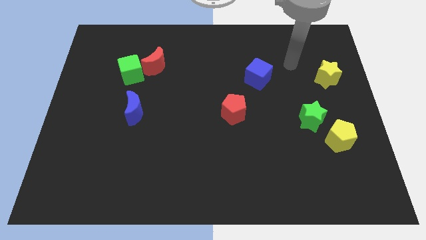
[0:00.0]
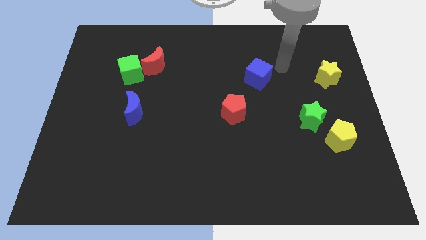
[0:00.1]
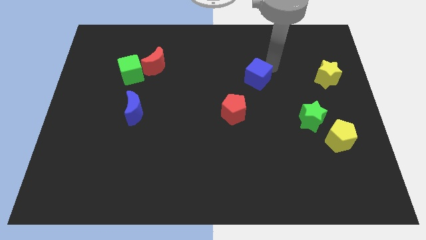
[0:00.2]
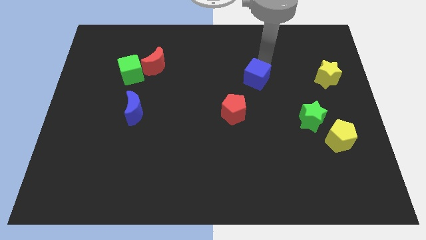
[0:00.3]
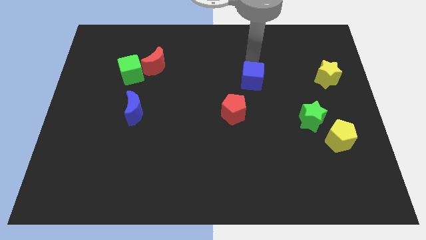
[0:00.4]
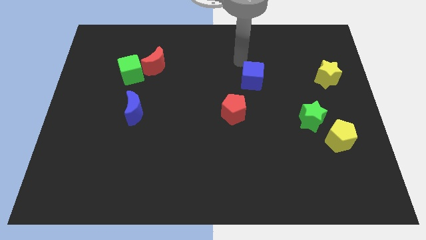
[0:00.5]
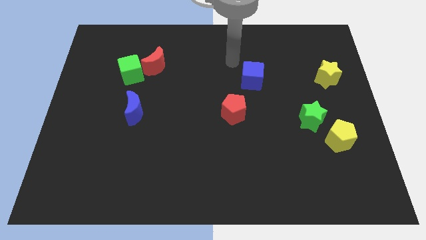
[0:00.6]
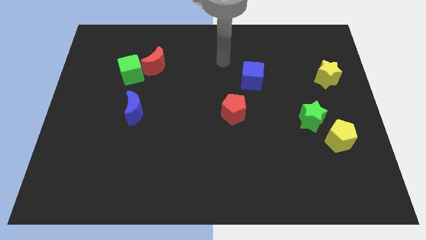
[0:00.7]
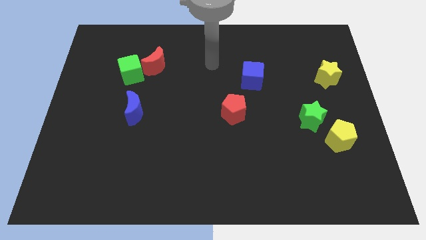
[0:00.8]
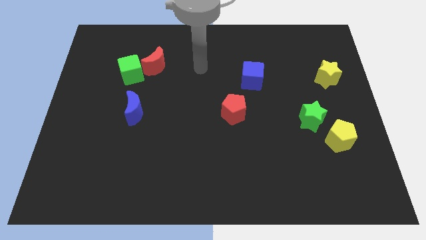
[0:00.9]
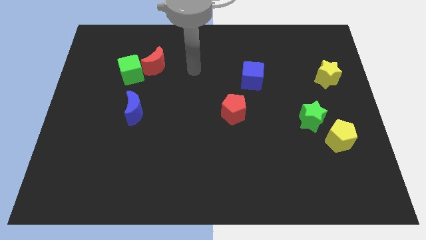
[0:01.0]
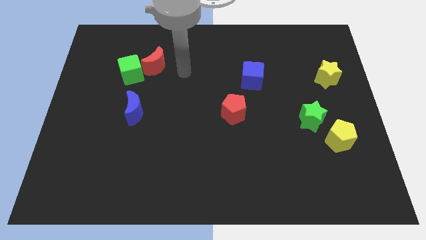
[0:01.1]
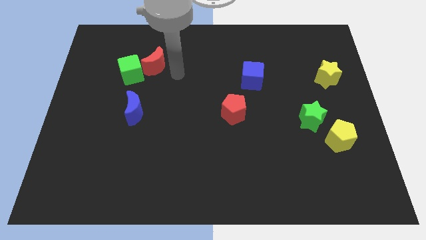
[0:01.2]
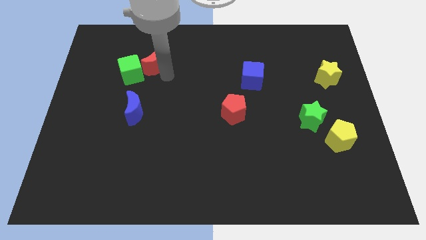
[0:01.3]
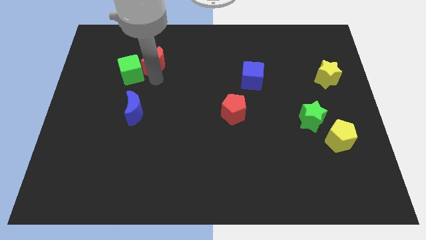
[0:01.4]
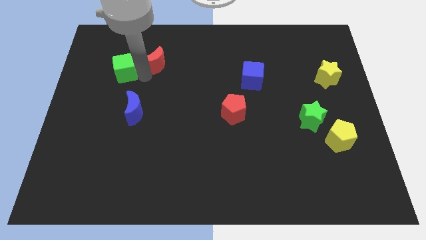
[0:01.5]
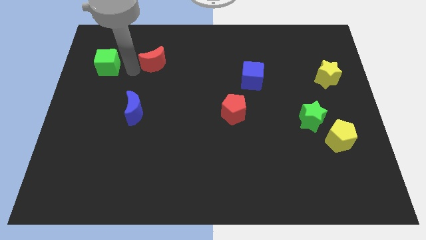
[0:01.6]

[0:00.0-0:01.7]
move the red moon away from the green cube

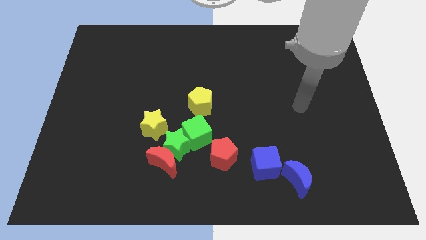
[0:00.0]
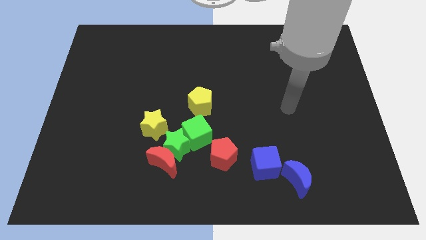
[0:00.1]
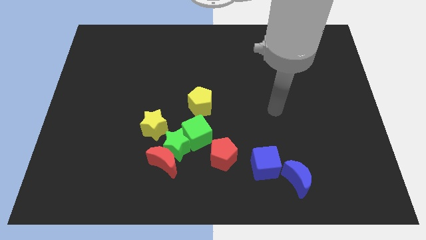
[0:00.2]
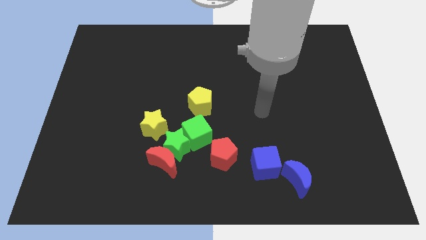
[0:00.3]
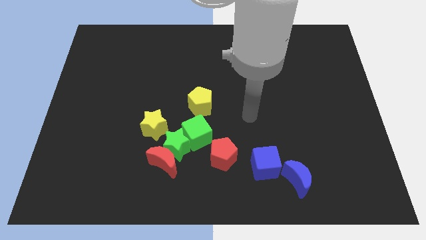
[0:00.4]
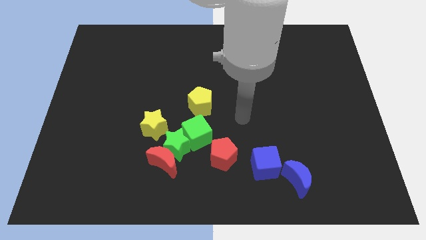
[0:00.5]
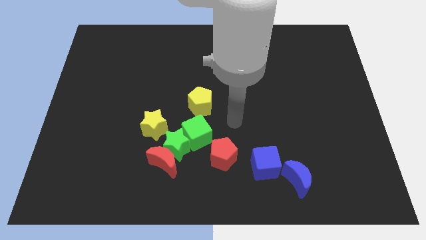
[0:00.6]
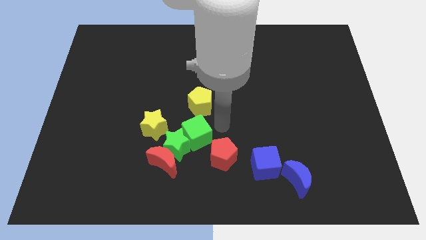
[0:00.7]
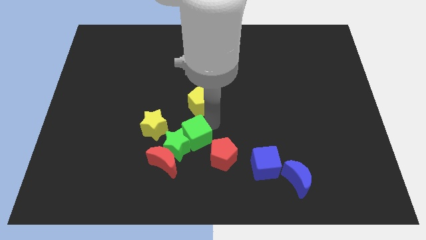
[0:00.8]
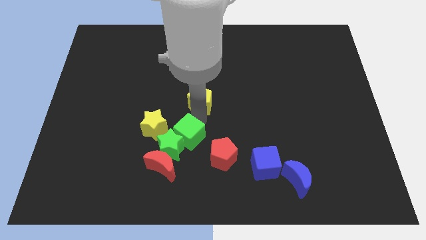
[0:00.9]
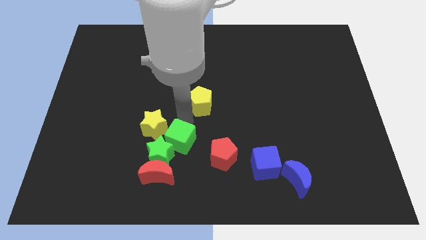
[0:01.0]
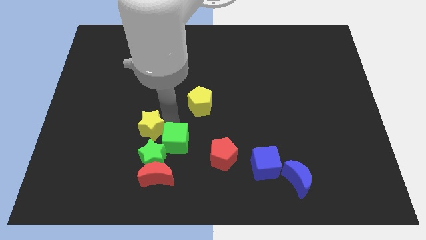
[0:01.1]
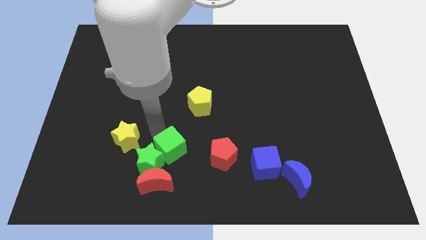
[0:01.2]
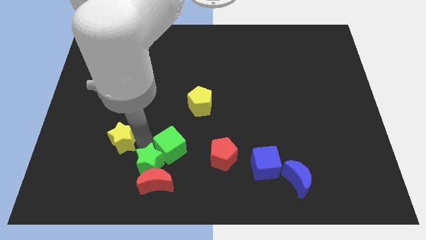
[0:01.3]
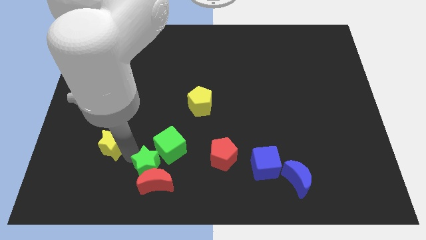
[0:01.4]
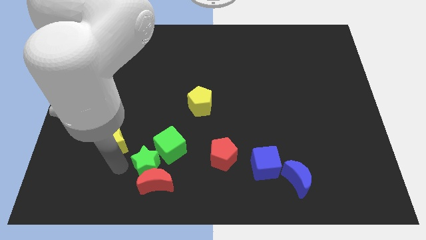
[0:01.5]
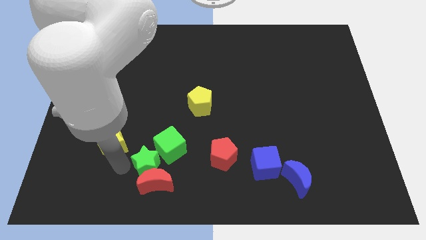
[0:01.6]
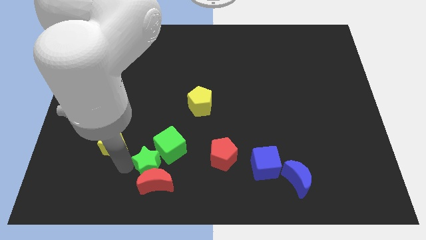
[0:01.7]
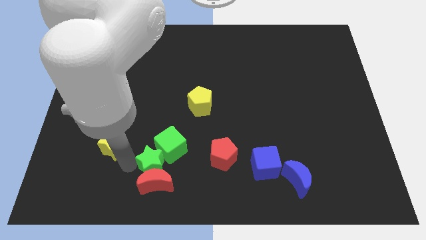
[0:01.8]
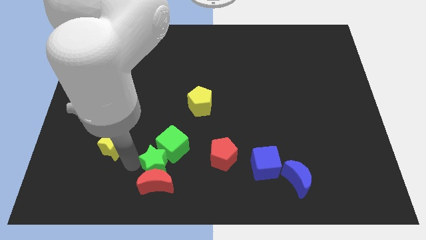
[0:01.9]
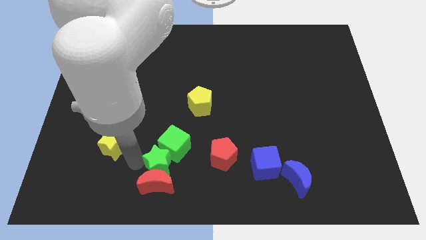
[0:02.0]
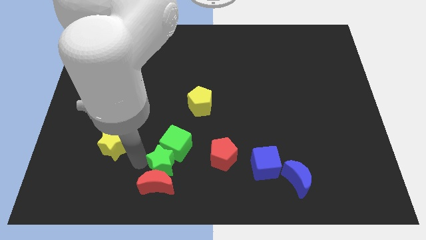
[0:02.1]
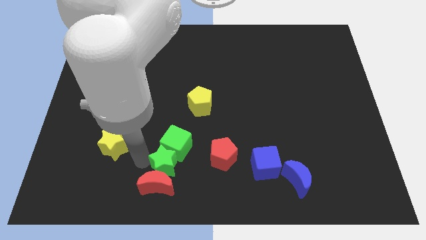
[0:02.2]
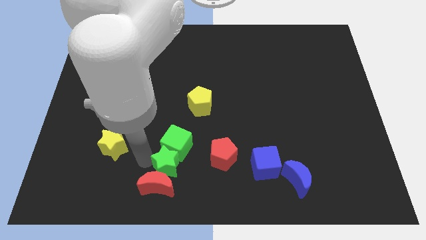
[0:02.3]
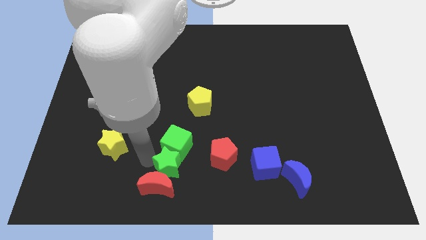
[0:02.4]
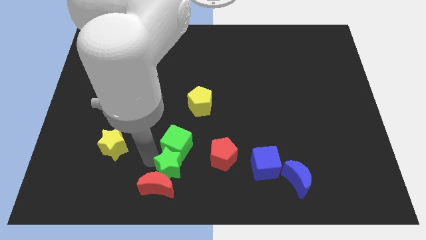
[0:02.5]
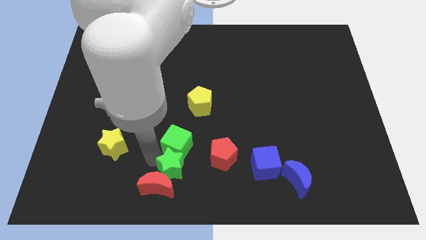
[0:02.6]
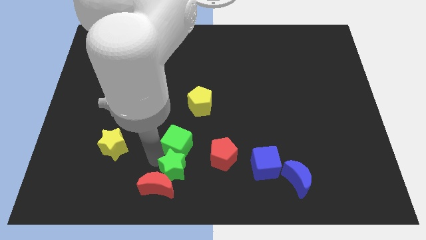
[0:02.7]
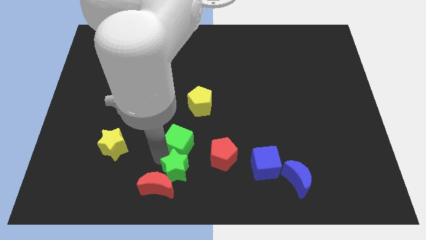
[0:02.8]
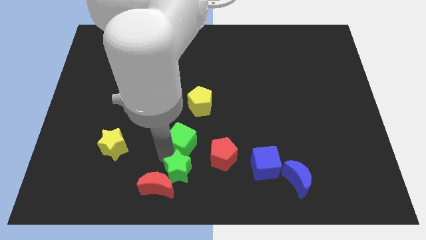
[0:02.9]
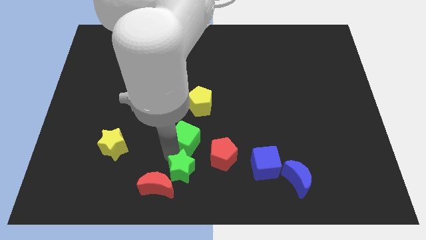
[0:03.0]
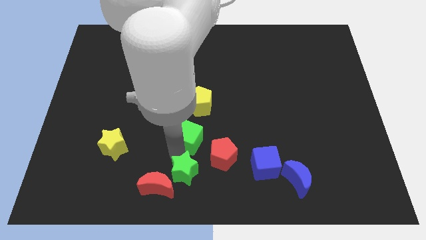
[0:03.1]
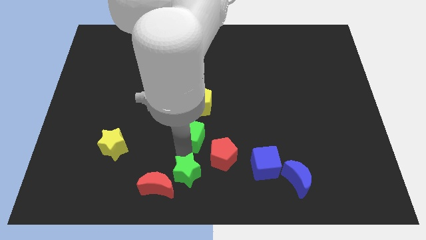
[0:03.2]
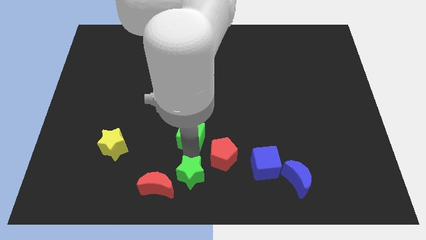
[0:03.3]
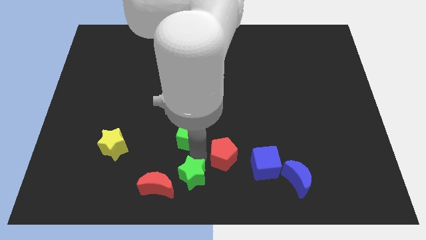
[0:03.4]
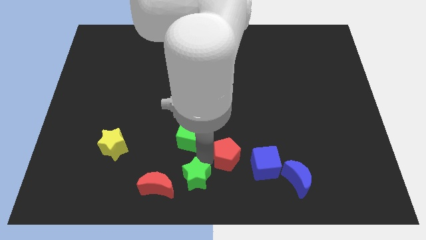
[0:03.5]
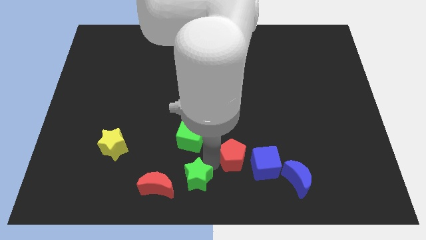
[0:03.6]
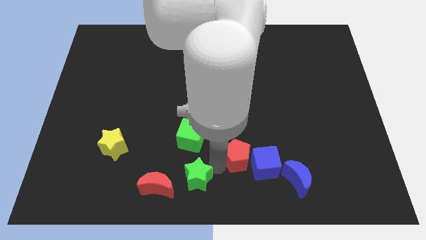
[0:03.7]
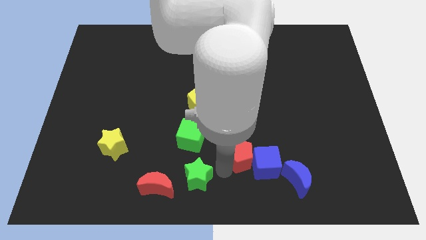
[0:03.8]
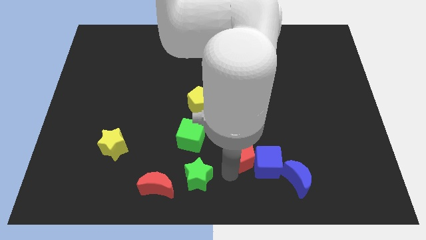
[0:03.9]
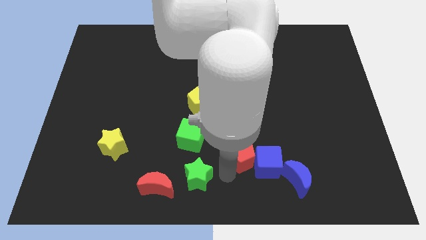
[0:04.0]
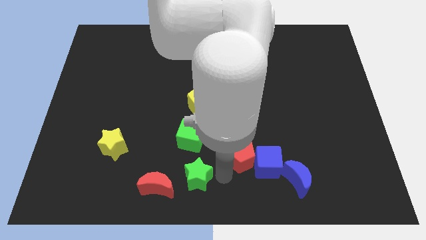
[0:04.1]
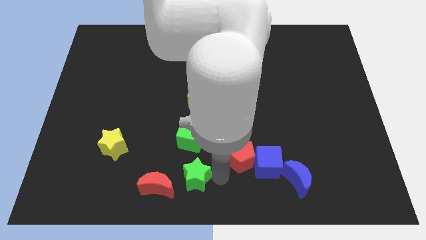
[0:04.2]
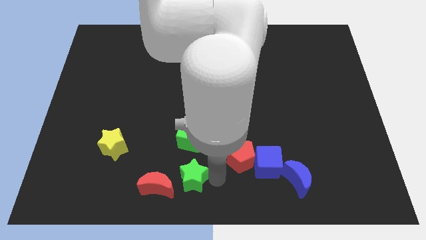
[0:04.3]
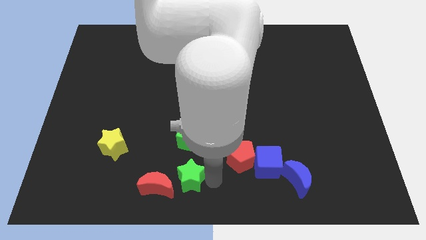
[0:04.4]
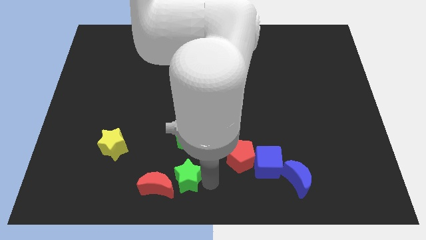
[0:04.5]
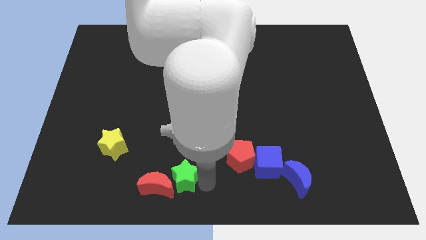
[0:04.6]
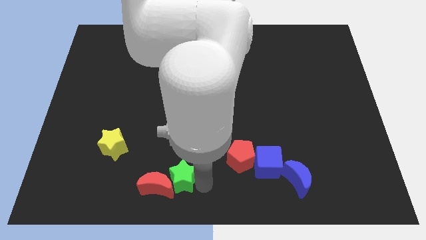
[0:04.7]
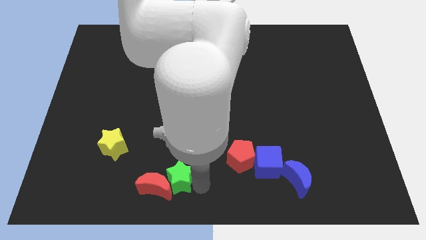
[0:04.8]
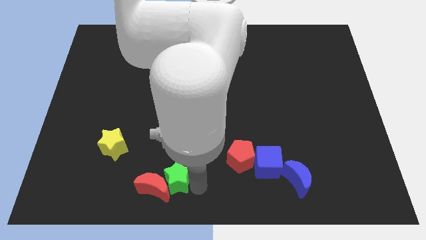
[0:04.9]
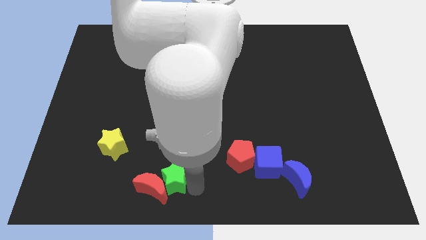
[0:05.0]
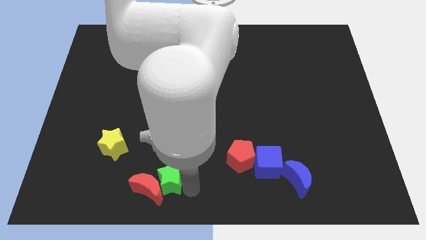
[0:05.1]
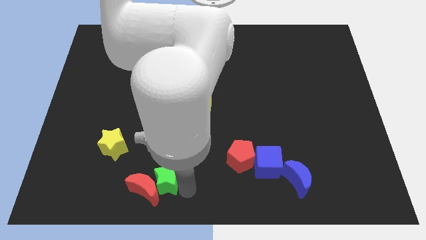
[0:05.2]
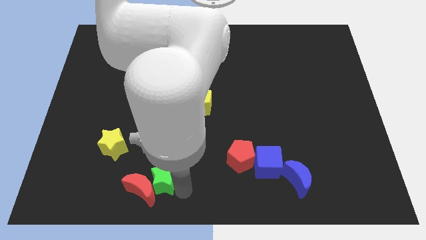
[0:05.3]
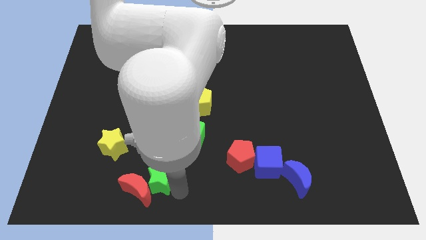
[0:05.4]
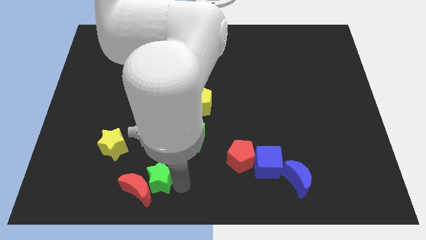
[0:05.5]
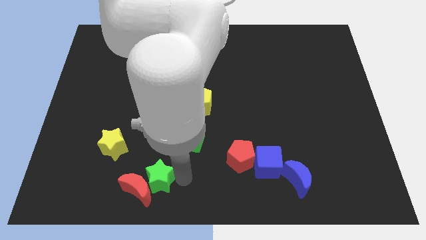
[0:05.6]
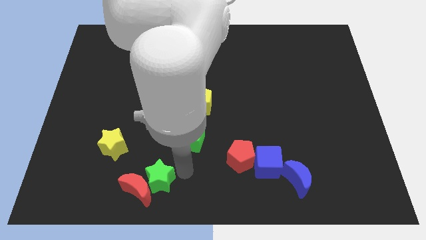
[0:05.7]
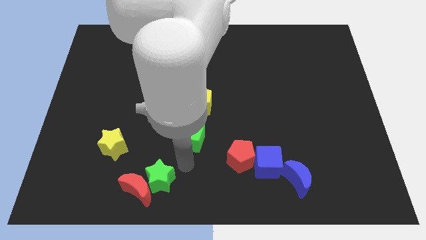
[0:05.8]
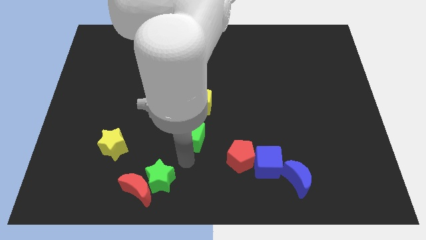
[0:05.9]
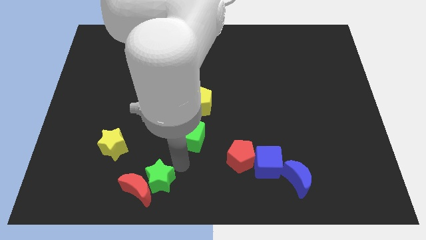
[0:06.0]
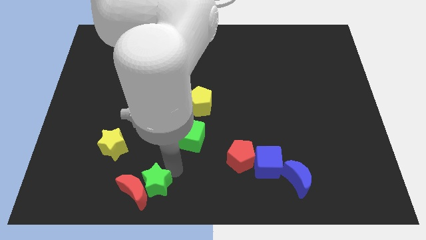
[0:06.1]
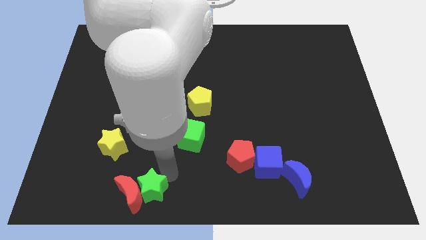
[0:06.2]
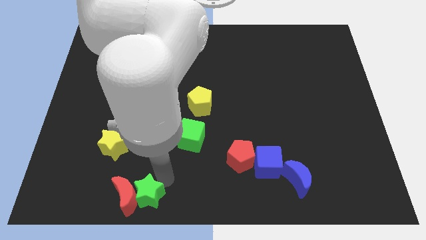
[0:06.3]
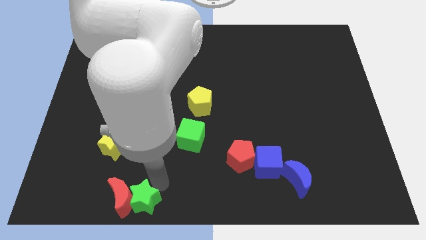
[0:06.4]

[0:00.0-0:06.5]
separate the green star from the clump

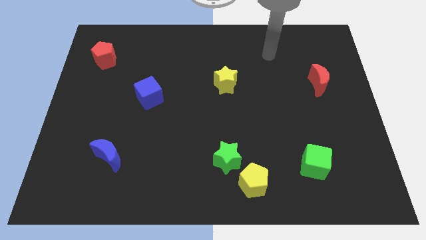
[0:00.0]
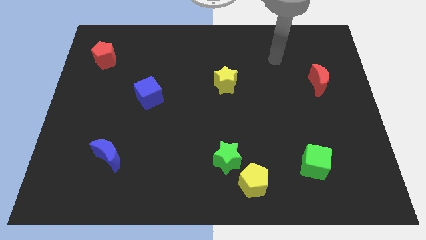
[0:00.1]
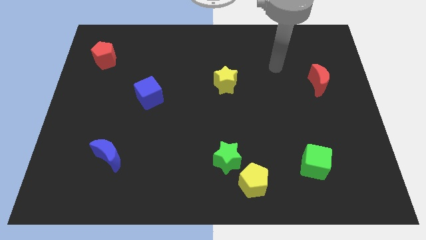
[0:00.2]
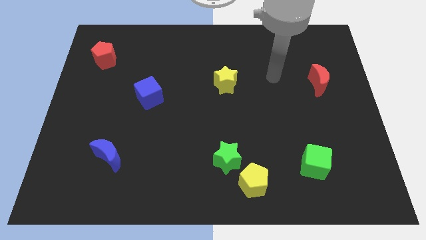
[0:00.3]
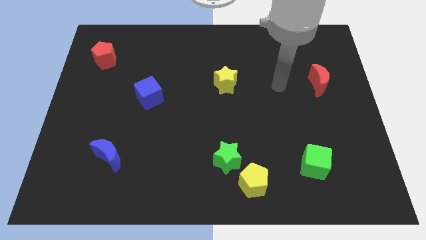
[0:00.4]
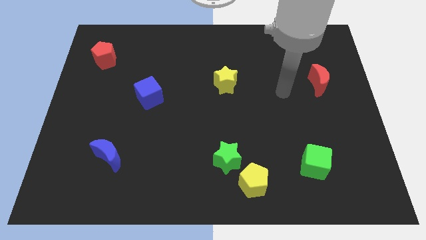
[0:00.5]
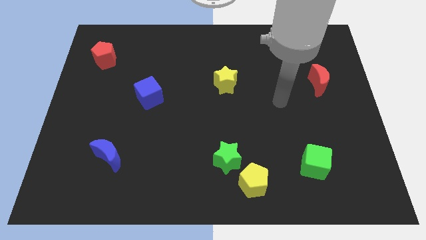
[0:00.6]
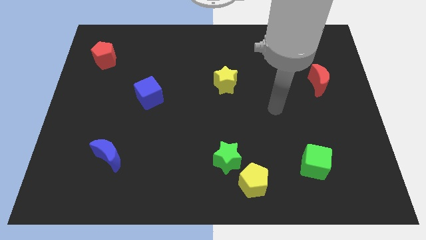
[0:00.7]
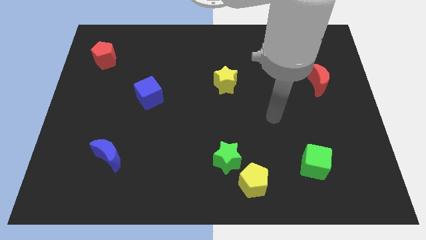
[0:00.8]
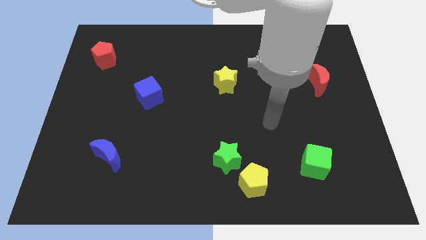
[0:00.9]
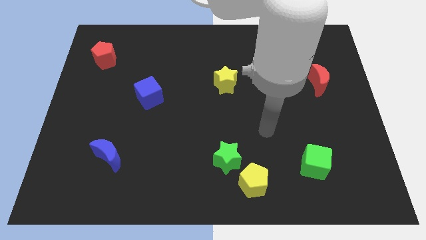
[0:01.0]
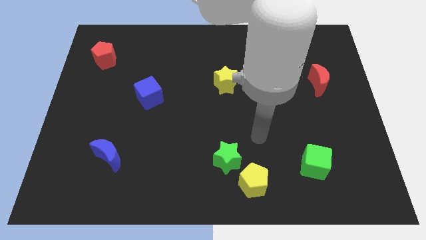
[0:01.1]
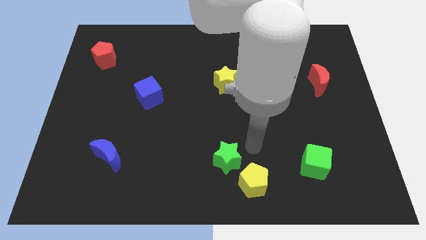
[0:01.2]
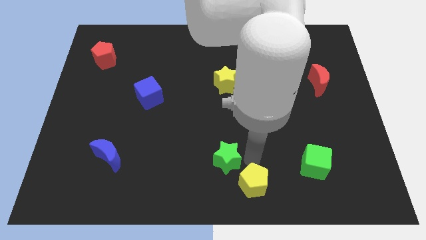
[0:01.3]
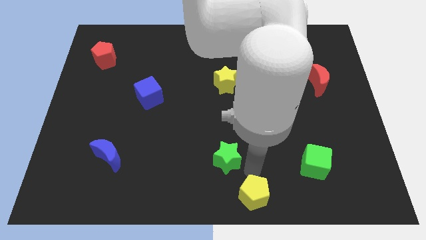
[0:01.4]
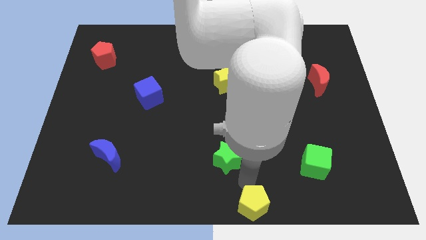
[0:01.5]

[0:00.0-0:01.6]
separate the green star from the yellow pentagon
